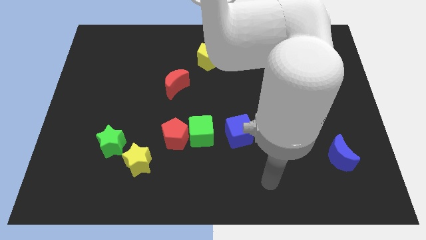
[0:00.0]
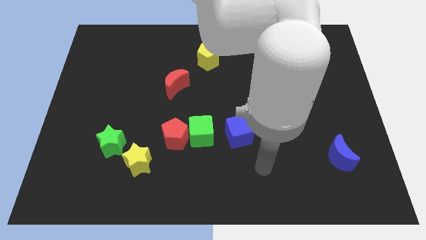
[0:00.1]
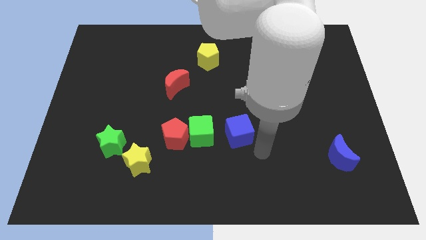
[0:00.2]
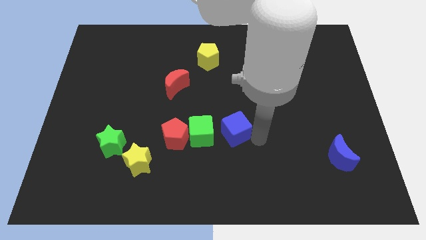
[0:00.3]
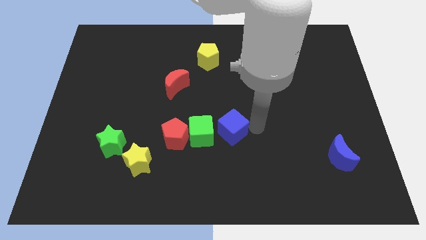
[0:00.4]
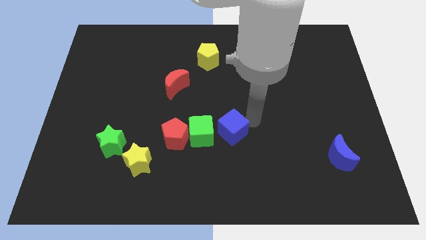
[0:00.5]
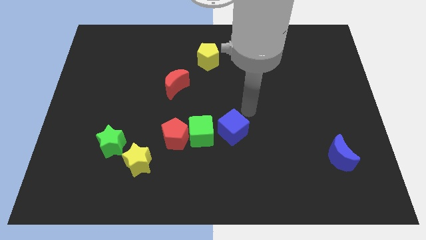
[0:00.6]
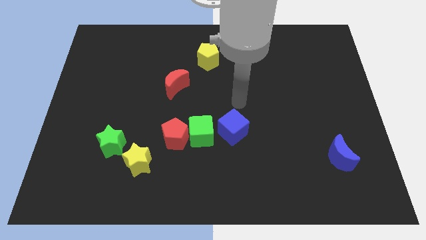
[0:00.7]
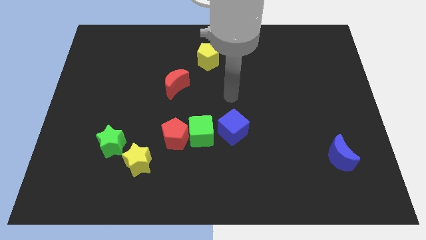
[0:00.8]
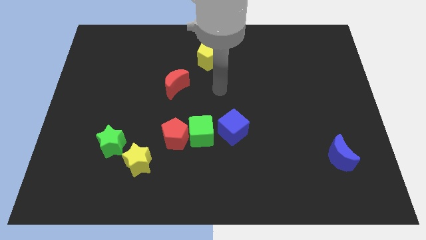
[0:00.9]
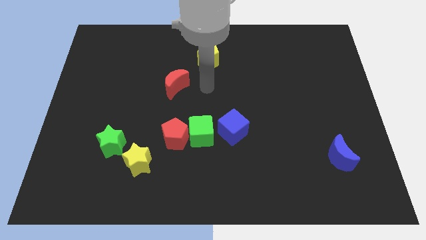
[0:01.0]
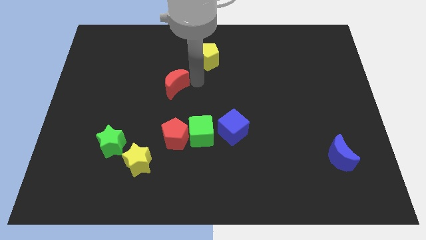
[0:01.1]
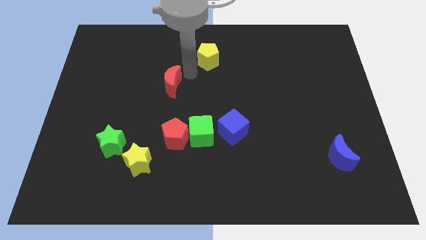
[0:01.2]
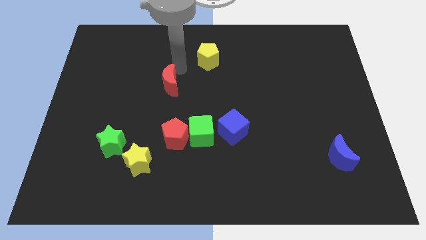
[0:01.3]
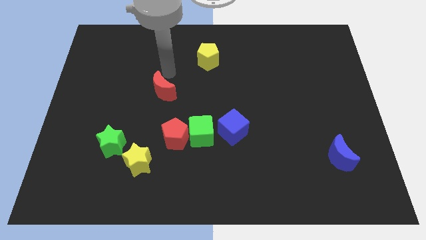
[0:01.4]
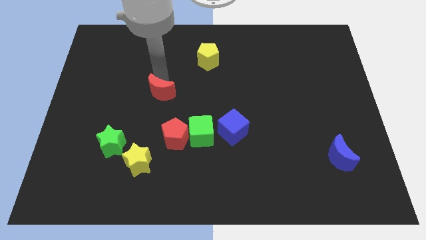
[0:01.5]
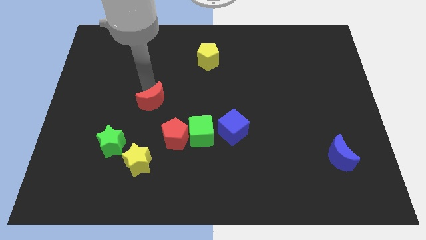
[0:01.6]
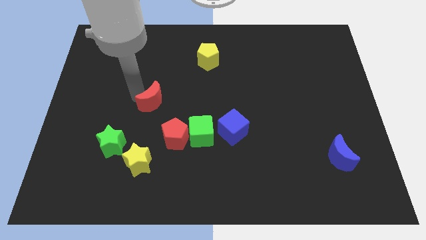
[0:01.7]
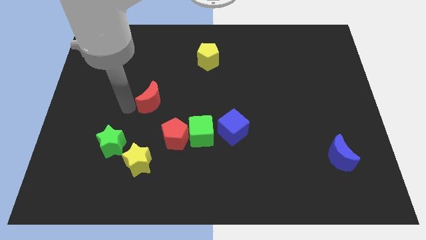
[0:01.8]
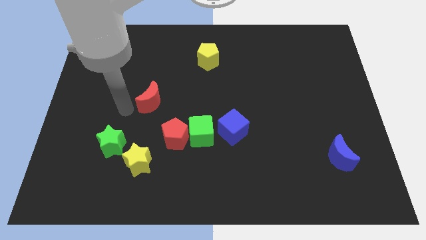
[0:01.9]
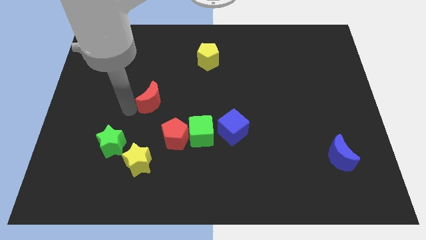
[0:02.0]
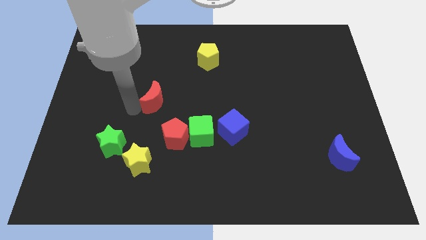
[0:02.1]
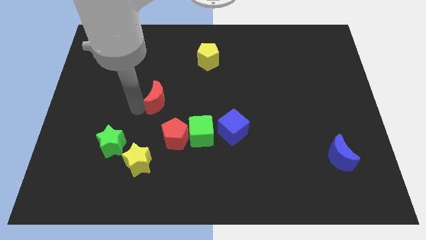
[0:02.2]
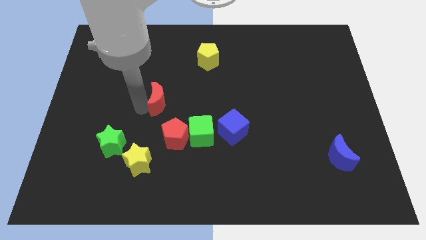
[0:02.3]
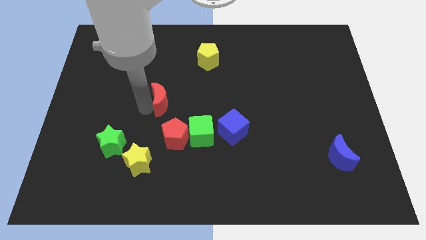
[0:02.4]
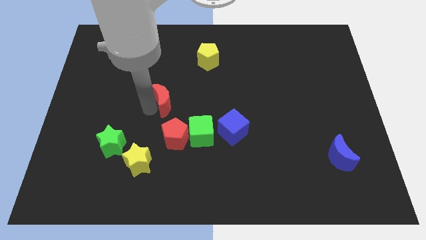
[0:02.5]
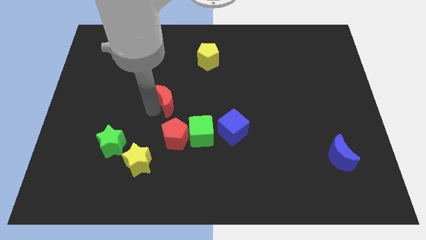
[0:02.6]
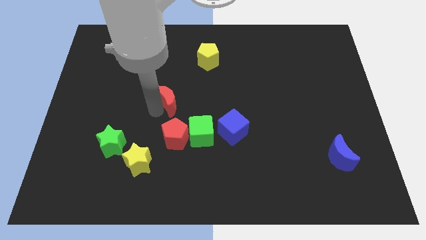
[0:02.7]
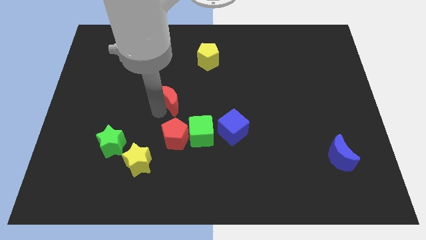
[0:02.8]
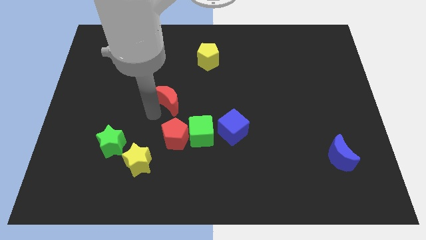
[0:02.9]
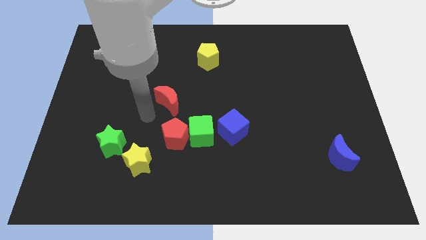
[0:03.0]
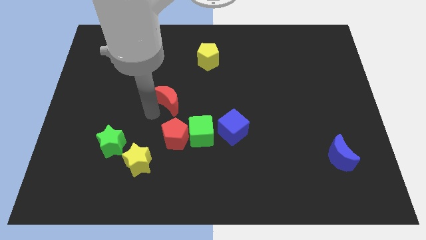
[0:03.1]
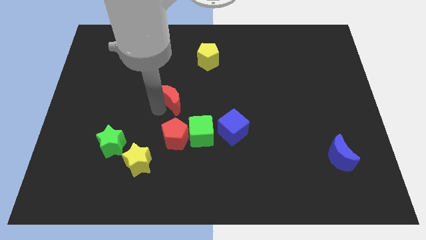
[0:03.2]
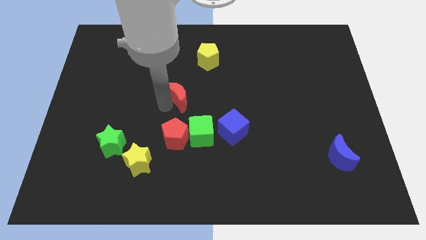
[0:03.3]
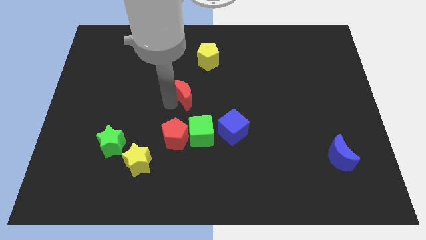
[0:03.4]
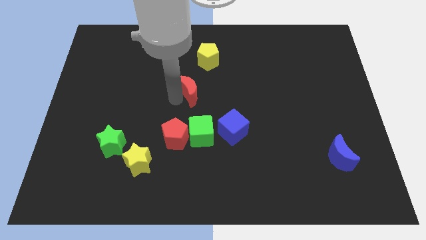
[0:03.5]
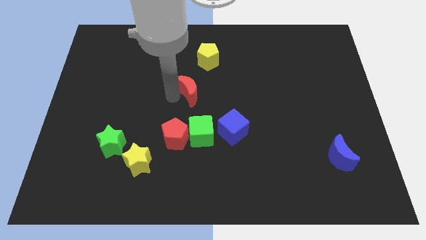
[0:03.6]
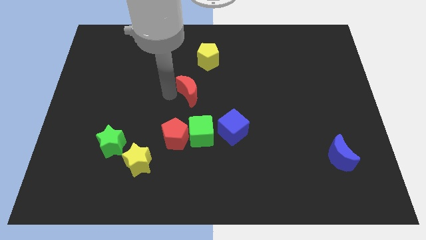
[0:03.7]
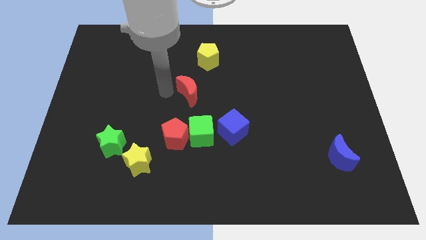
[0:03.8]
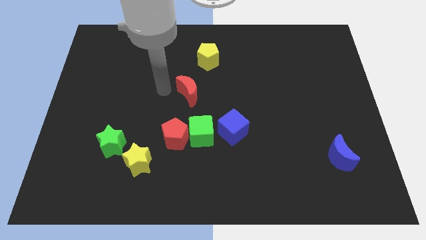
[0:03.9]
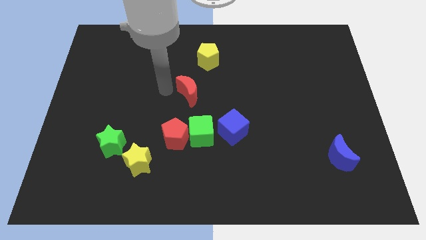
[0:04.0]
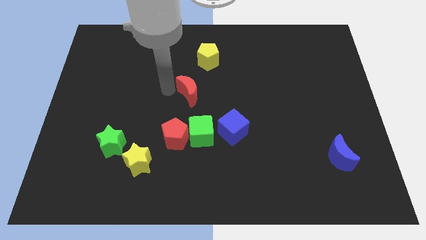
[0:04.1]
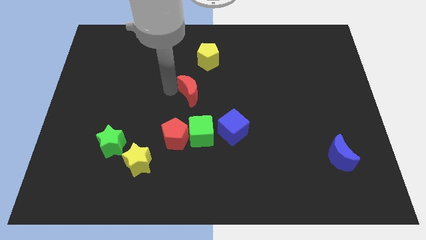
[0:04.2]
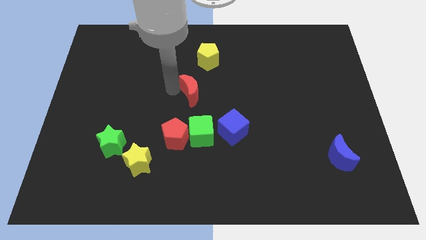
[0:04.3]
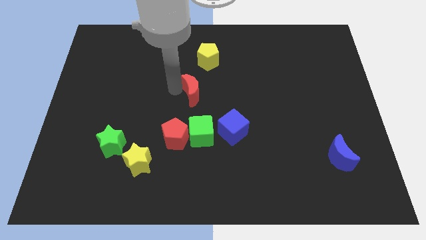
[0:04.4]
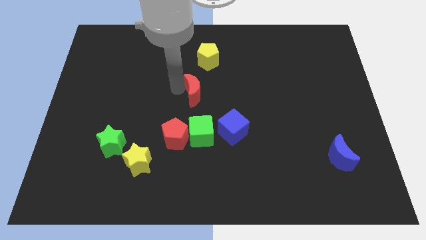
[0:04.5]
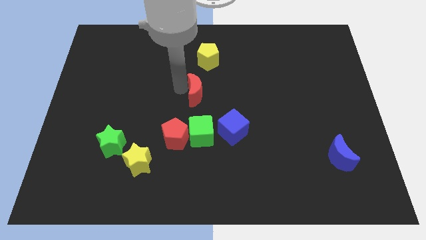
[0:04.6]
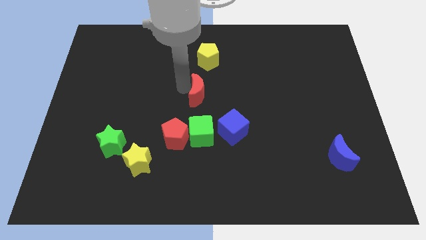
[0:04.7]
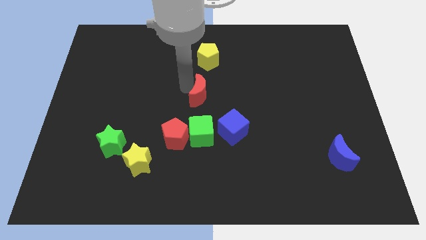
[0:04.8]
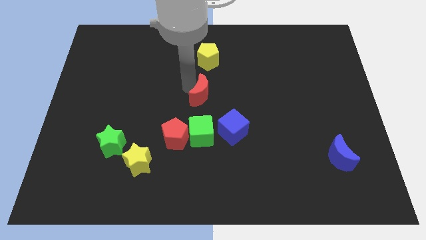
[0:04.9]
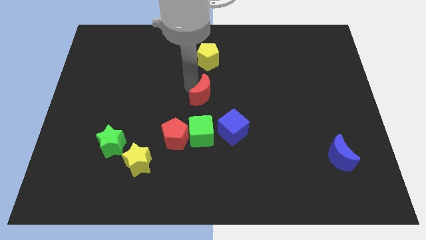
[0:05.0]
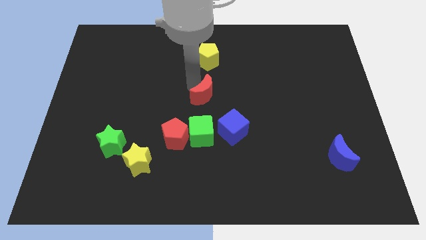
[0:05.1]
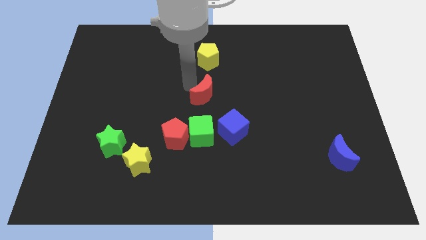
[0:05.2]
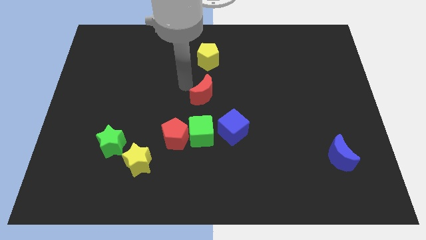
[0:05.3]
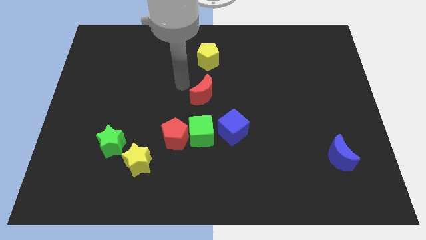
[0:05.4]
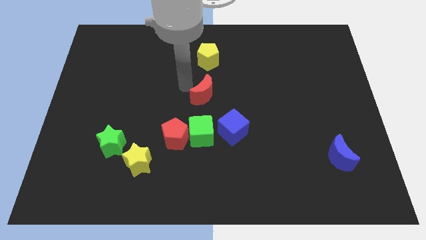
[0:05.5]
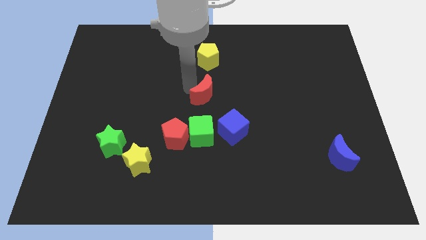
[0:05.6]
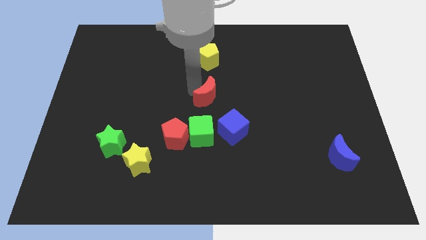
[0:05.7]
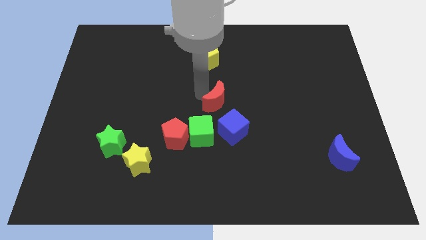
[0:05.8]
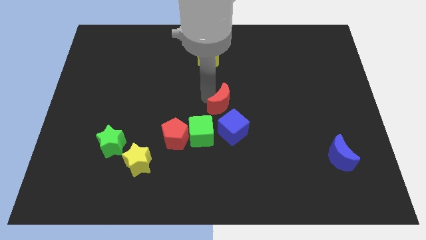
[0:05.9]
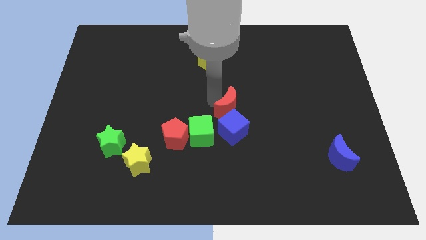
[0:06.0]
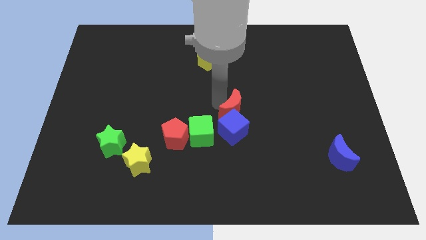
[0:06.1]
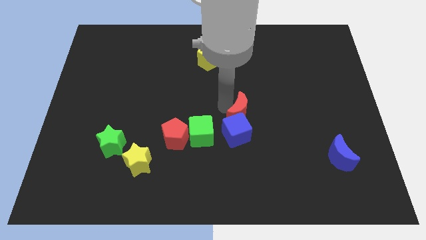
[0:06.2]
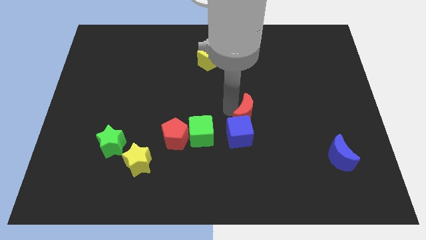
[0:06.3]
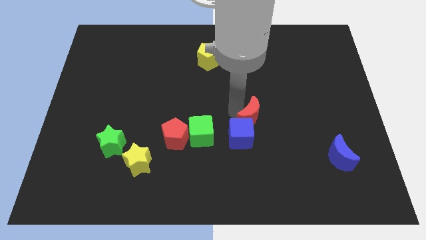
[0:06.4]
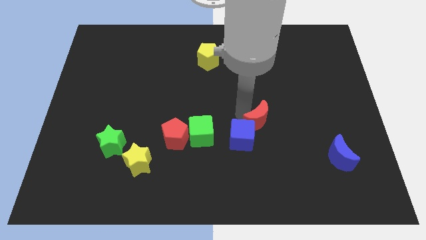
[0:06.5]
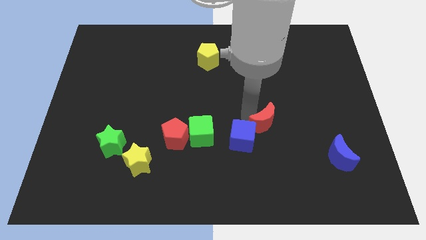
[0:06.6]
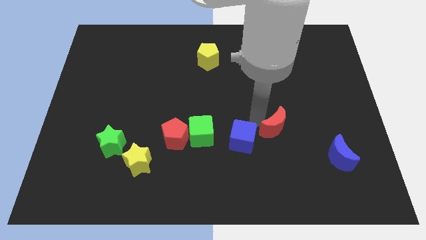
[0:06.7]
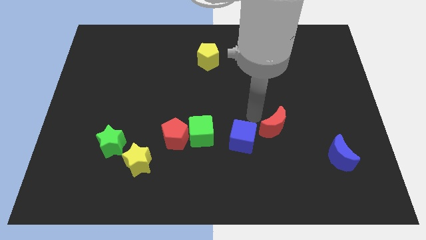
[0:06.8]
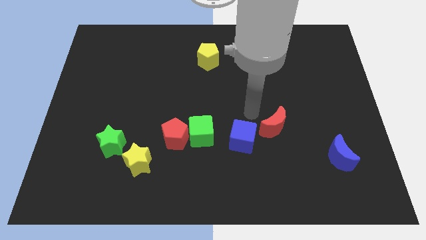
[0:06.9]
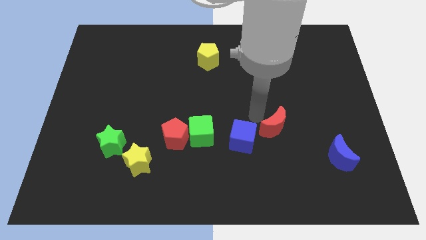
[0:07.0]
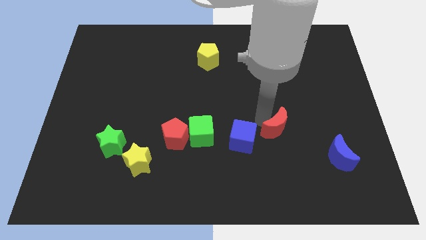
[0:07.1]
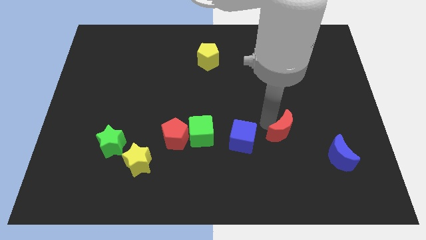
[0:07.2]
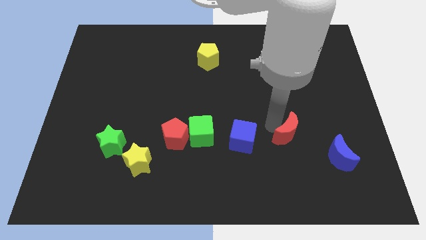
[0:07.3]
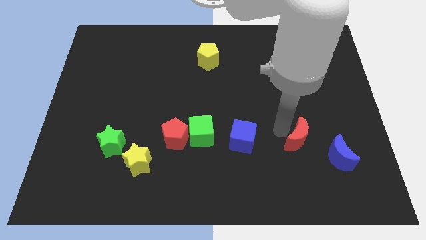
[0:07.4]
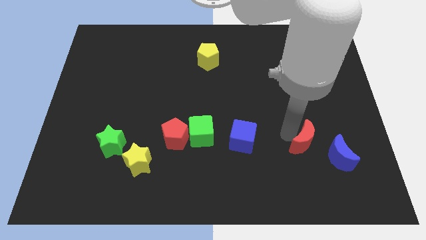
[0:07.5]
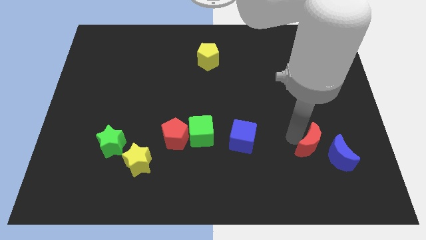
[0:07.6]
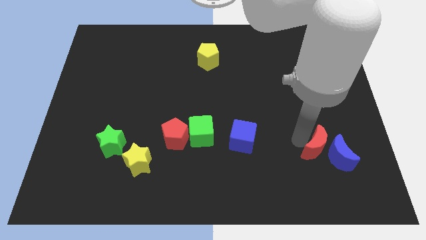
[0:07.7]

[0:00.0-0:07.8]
push the red moon next to the blue moon
